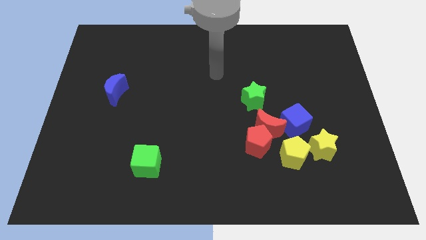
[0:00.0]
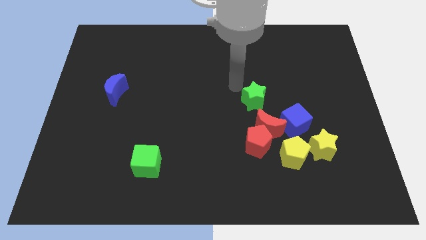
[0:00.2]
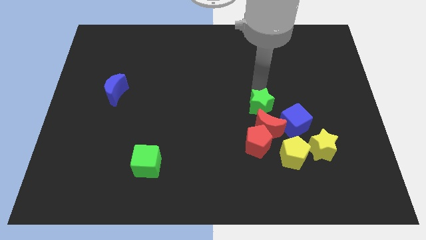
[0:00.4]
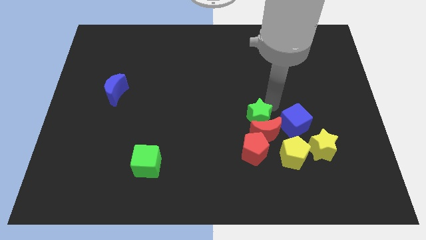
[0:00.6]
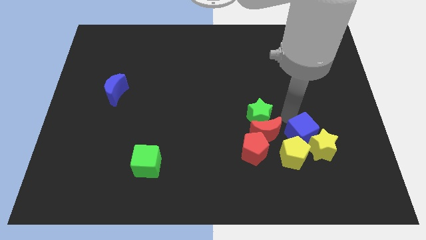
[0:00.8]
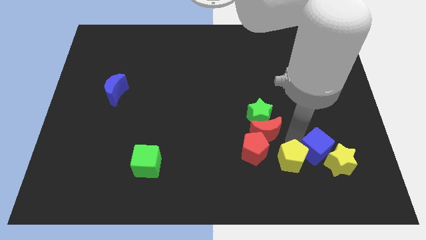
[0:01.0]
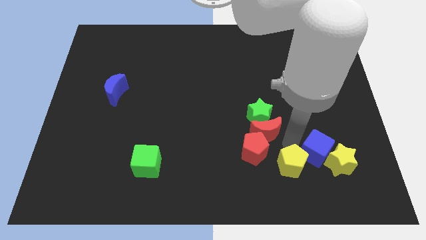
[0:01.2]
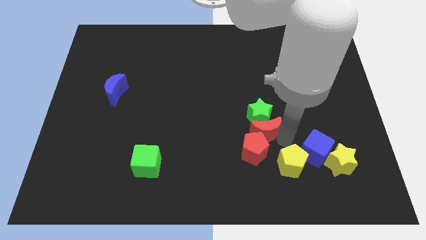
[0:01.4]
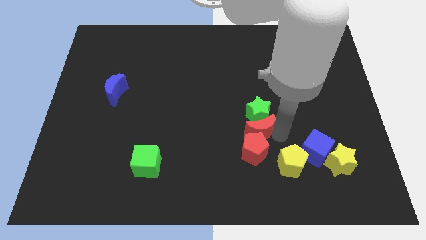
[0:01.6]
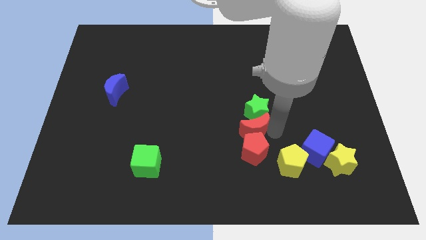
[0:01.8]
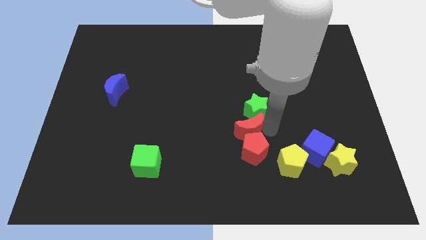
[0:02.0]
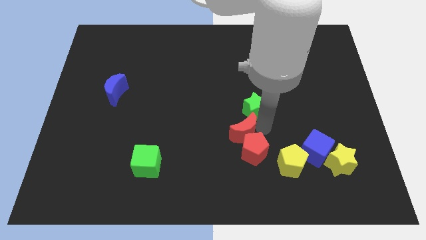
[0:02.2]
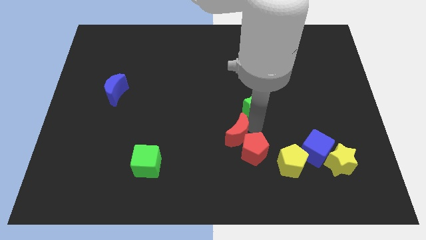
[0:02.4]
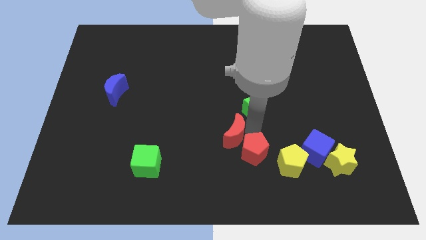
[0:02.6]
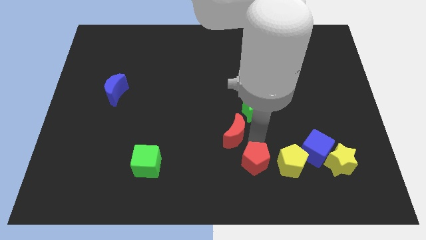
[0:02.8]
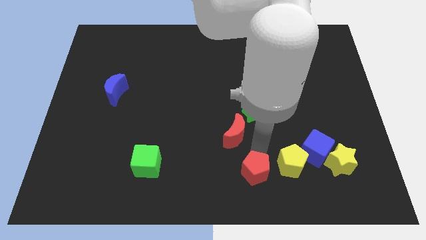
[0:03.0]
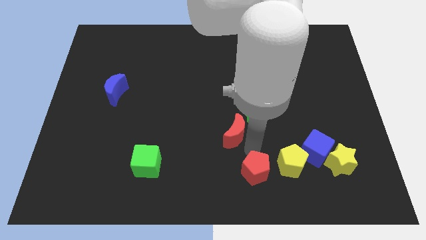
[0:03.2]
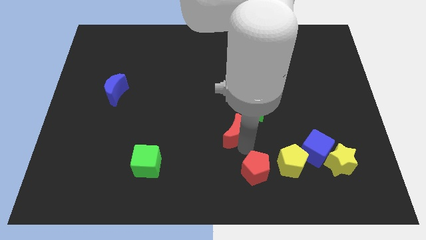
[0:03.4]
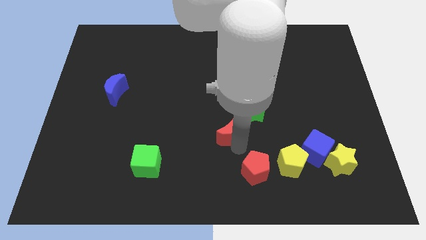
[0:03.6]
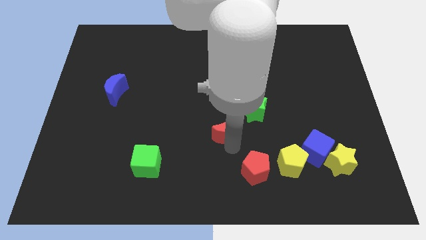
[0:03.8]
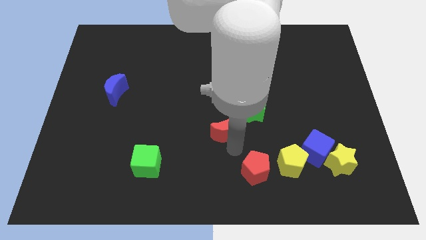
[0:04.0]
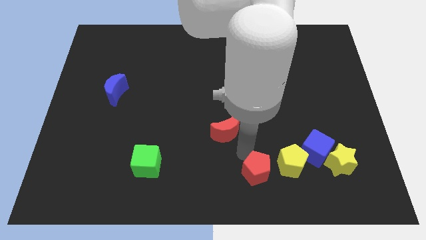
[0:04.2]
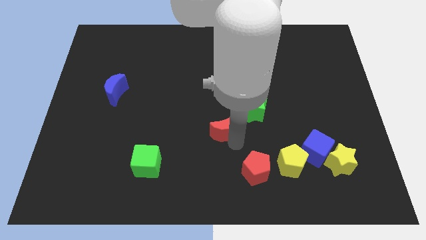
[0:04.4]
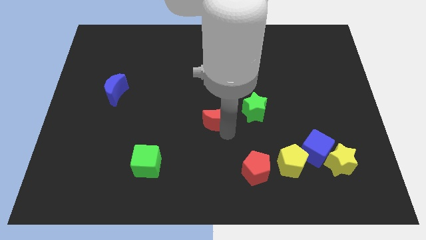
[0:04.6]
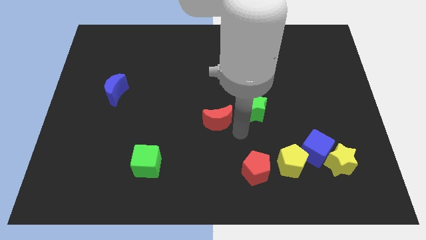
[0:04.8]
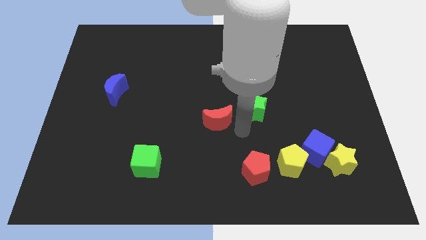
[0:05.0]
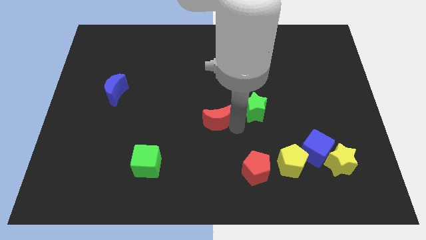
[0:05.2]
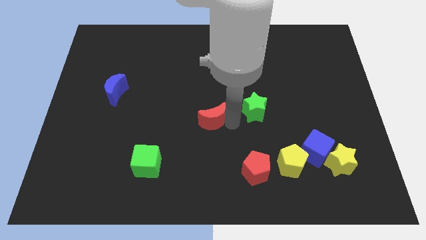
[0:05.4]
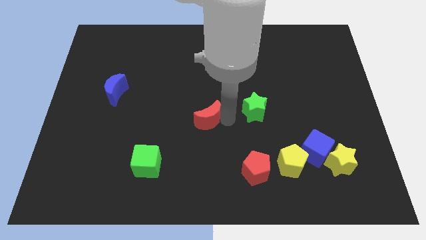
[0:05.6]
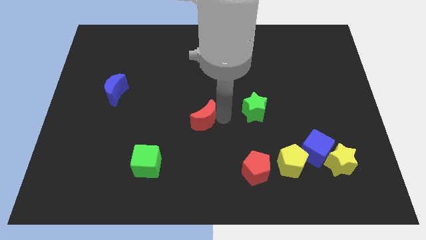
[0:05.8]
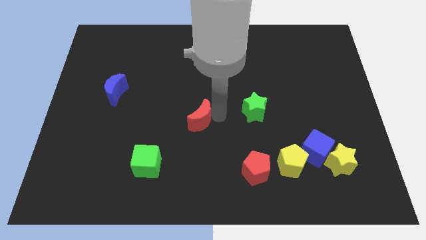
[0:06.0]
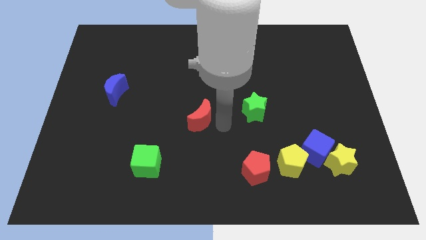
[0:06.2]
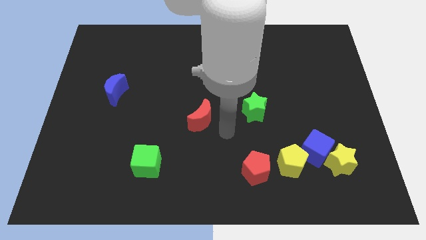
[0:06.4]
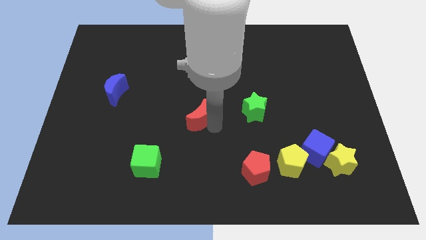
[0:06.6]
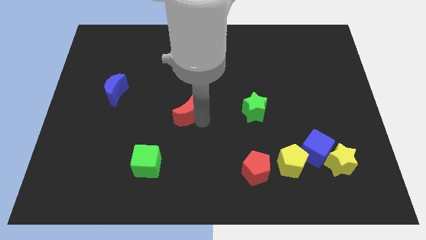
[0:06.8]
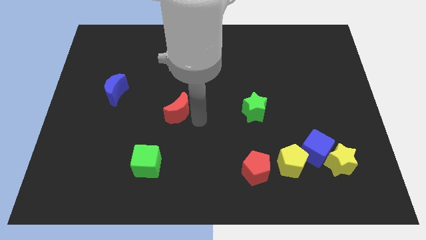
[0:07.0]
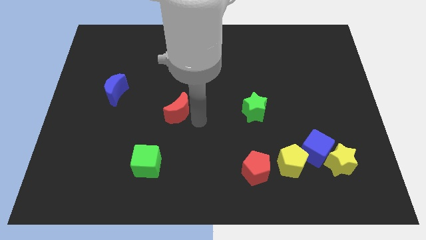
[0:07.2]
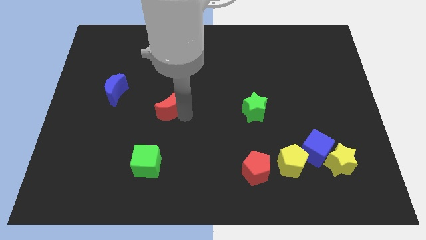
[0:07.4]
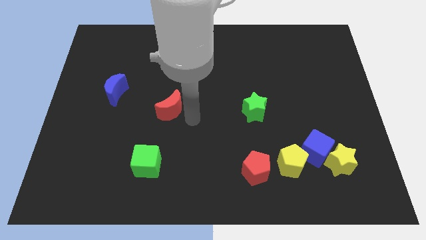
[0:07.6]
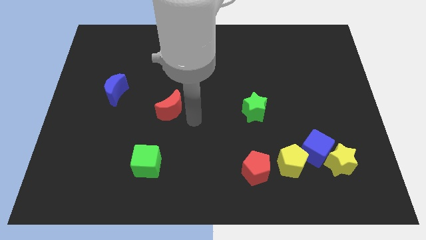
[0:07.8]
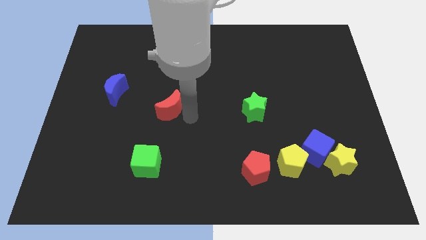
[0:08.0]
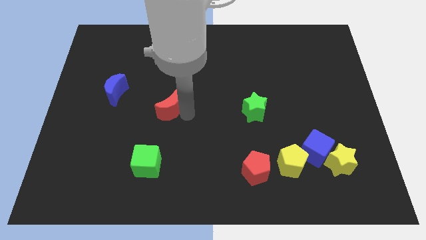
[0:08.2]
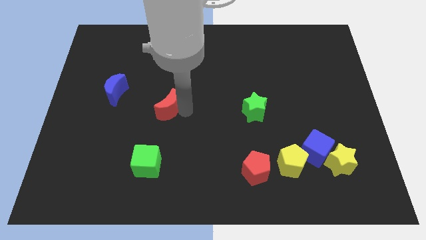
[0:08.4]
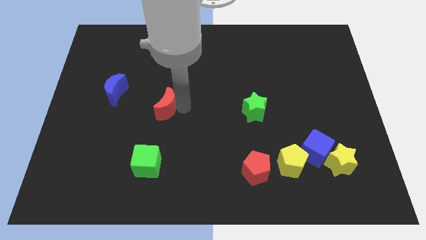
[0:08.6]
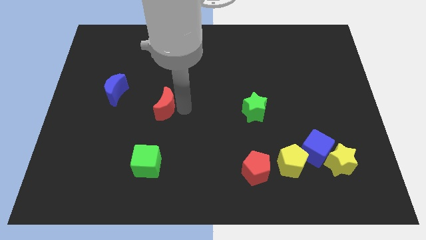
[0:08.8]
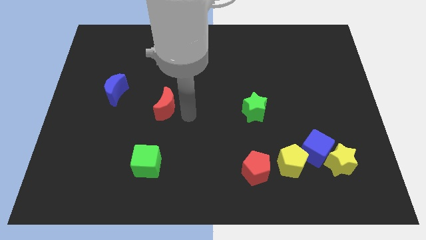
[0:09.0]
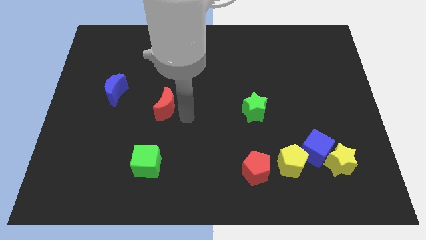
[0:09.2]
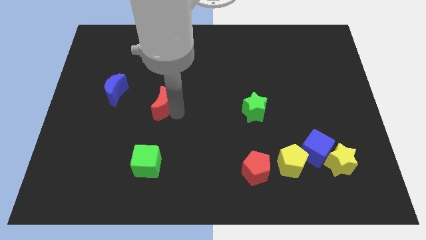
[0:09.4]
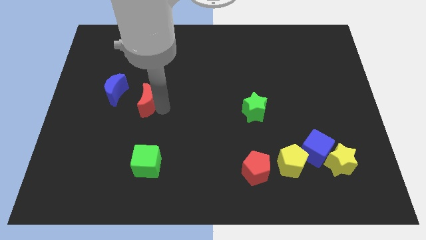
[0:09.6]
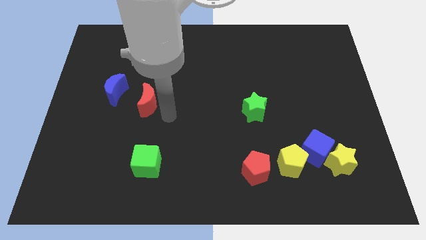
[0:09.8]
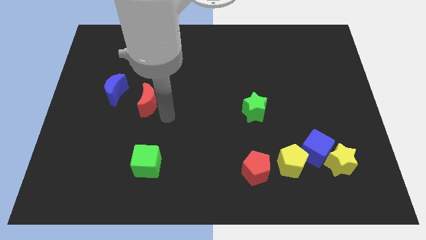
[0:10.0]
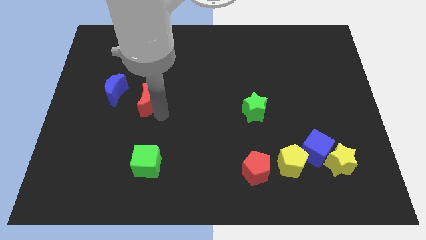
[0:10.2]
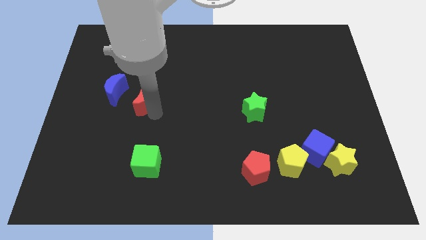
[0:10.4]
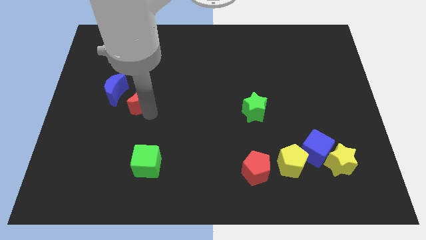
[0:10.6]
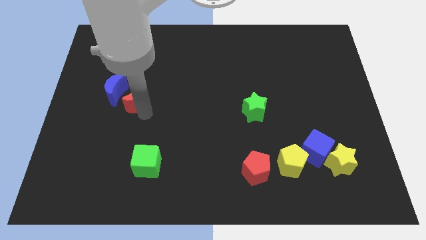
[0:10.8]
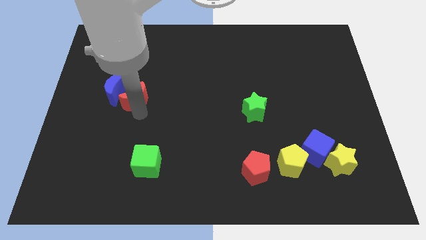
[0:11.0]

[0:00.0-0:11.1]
put the red moon close to the blue moon
